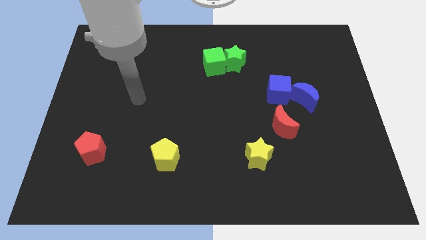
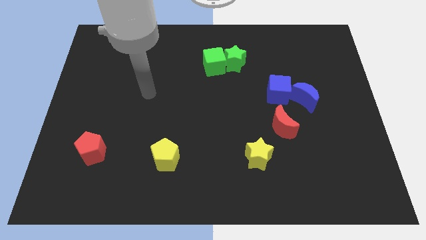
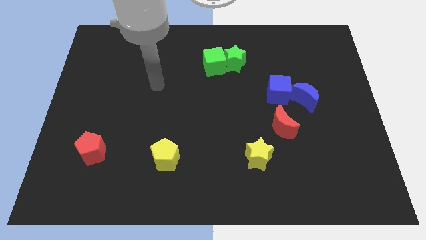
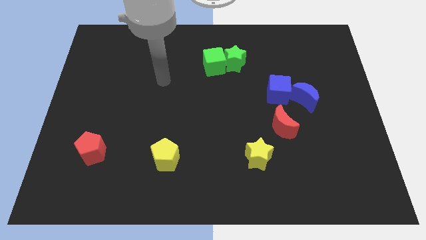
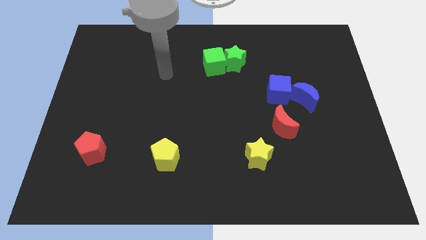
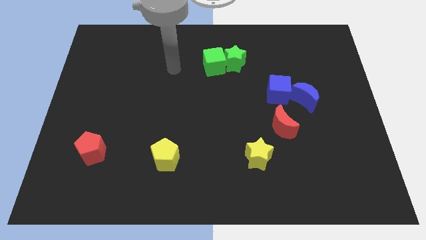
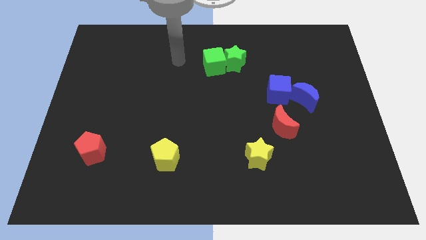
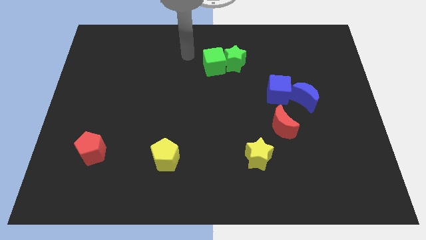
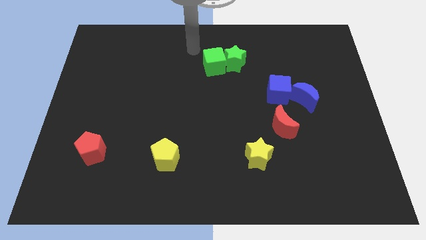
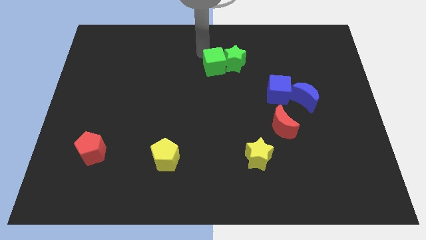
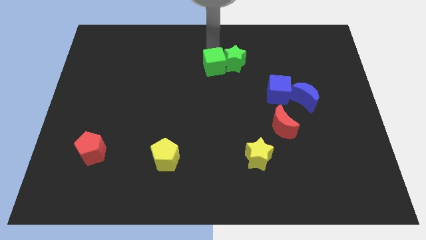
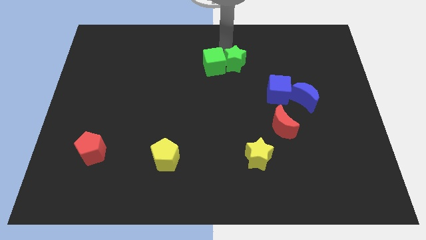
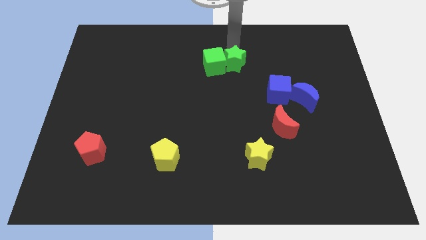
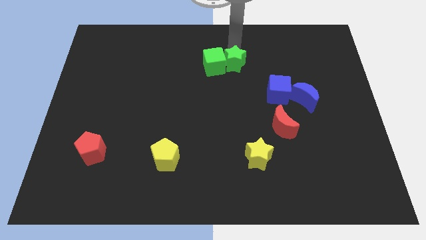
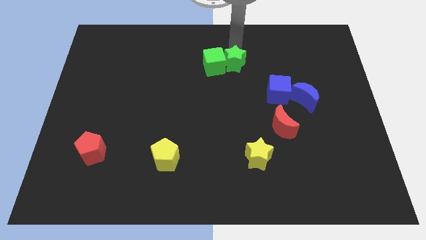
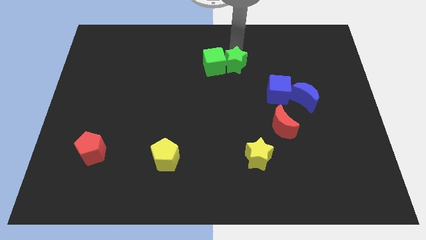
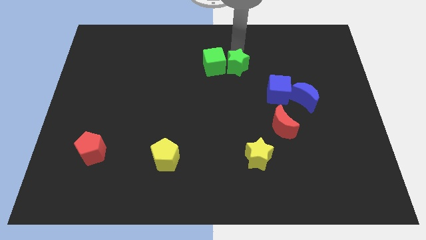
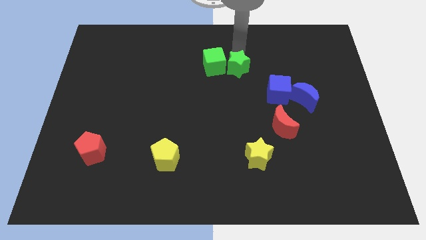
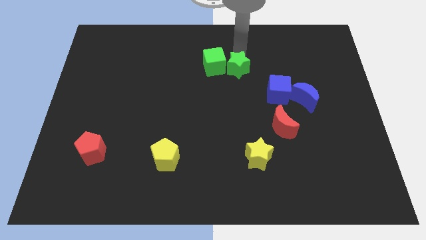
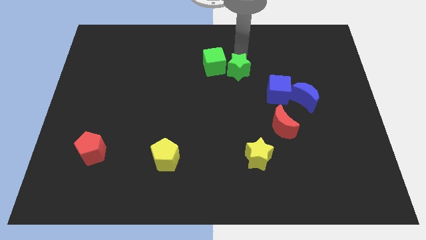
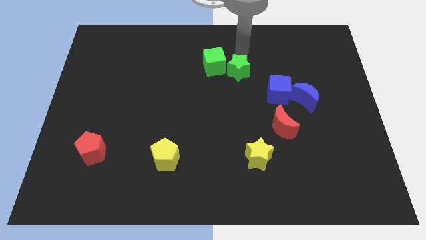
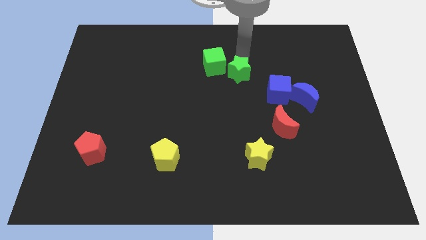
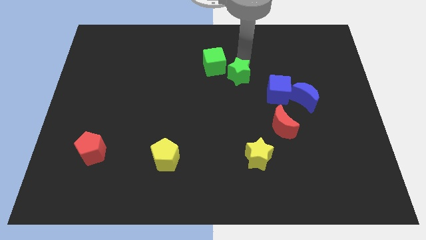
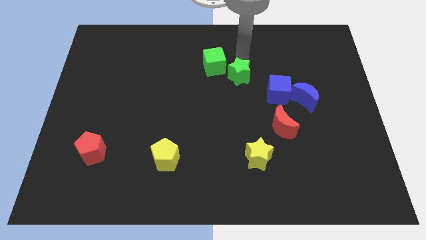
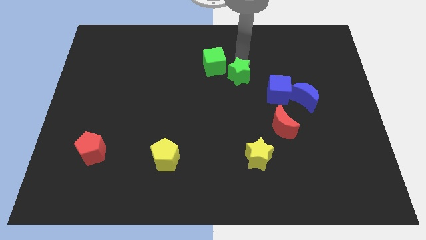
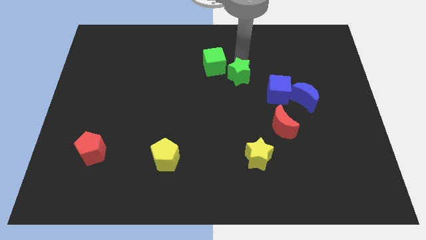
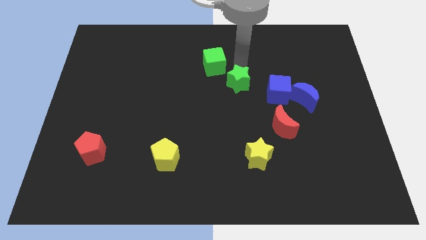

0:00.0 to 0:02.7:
slide the green star a little bit down

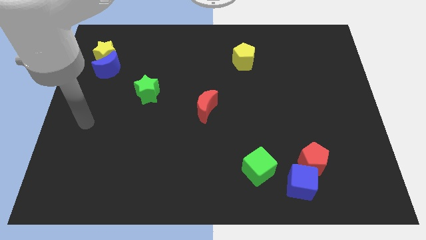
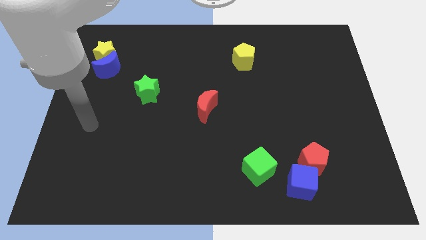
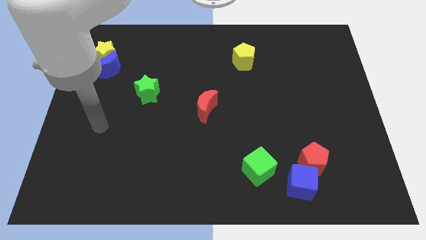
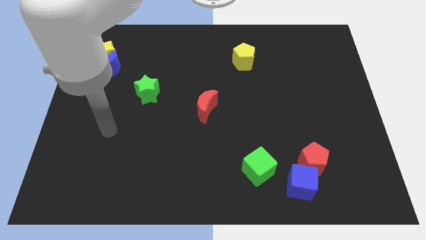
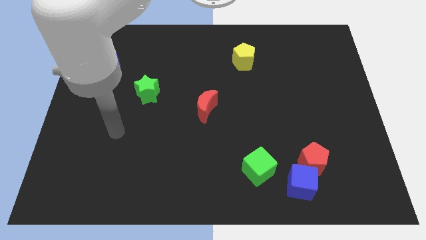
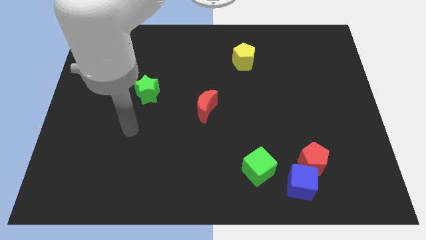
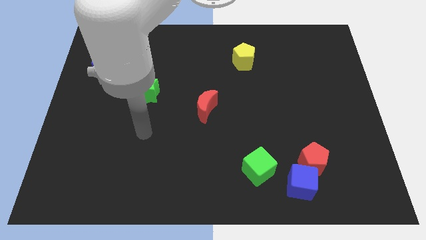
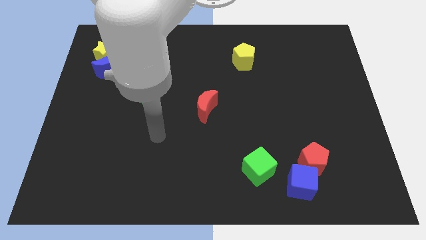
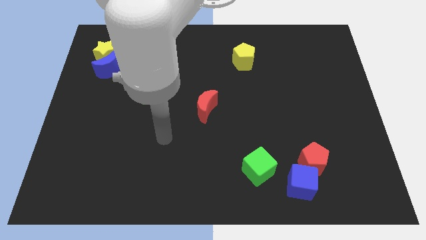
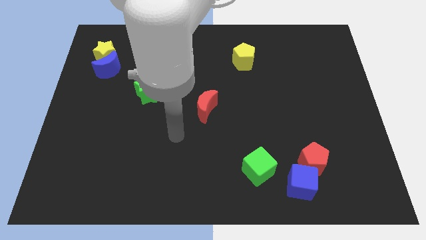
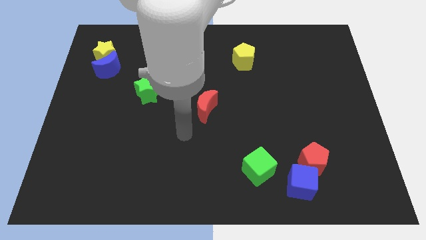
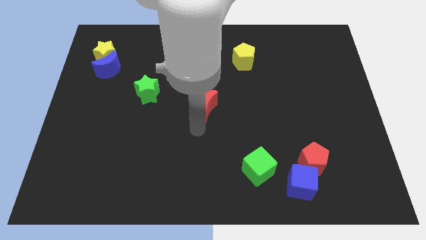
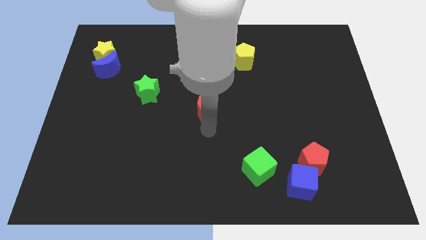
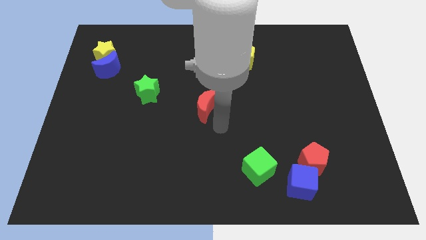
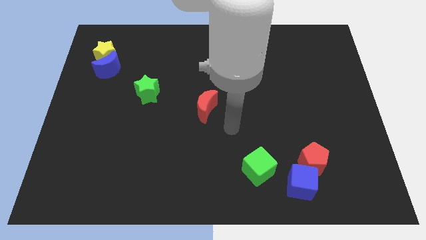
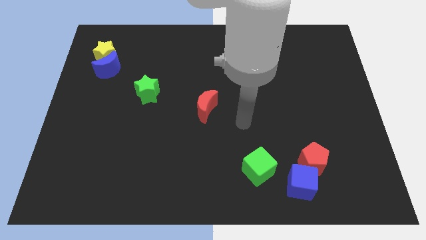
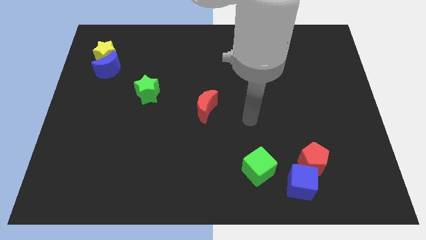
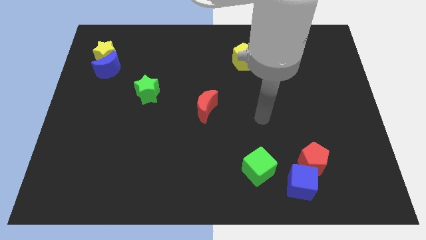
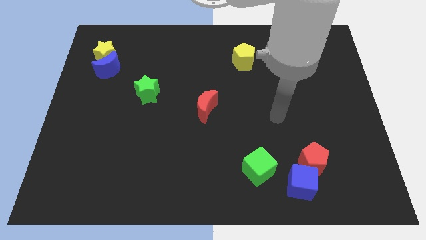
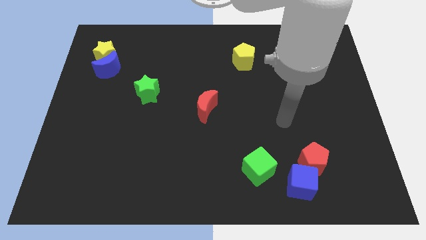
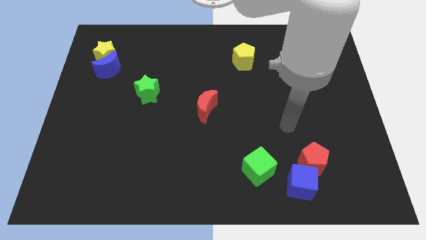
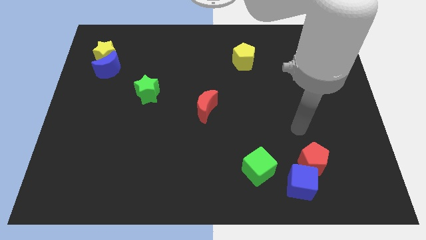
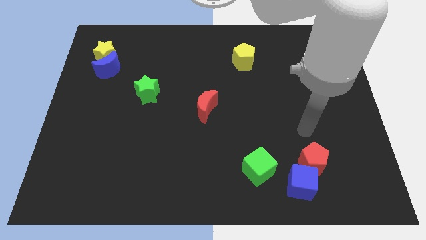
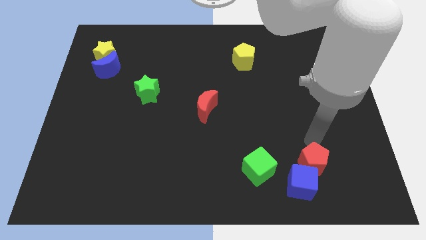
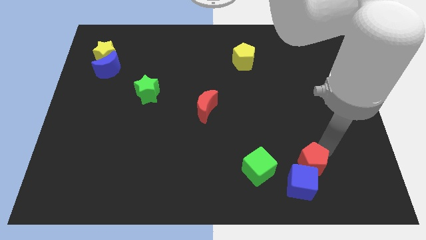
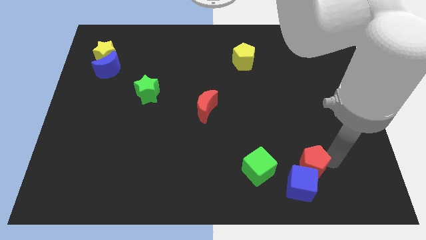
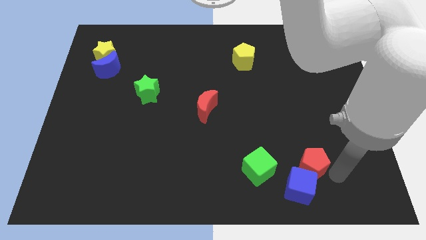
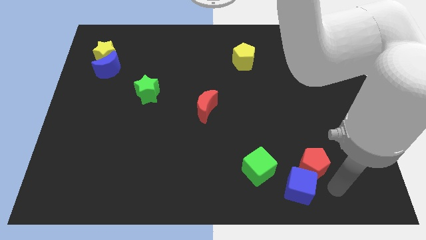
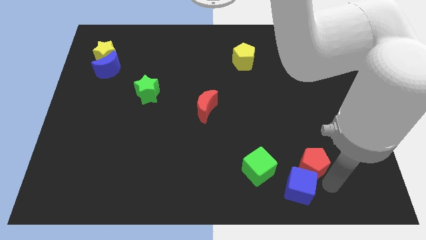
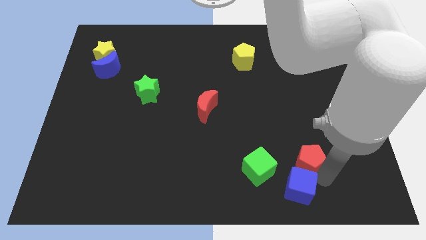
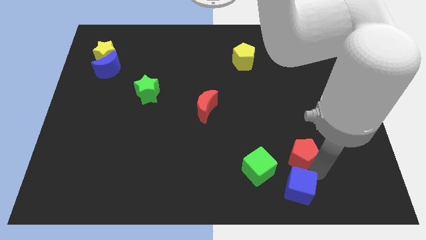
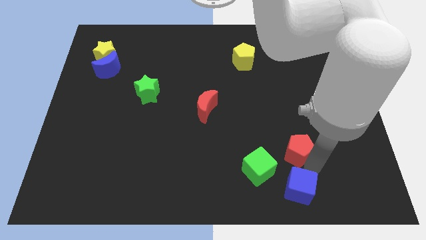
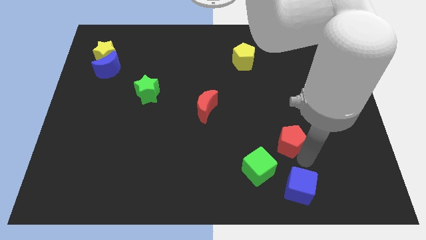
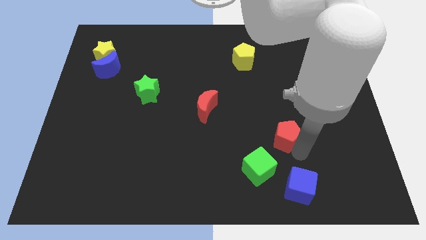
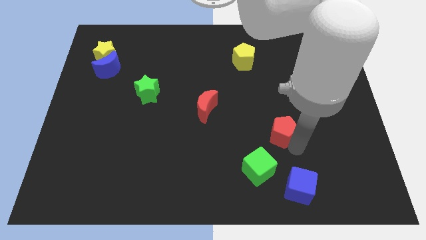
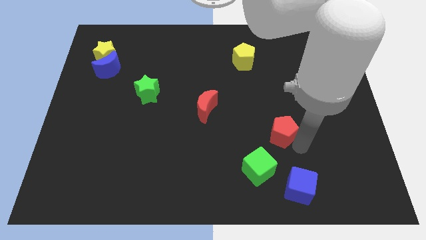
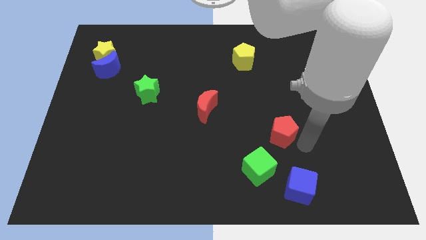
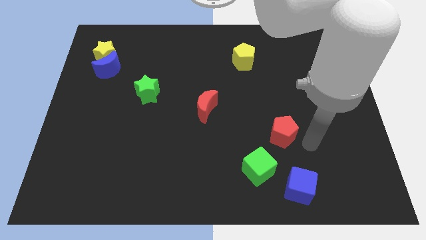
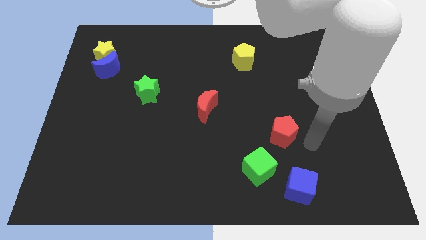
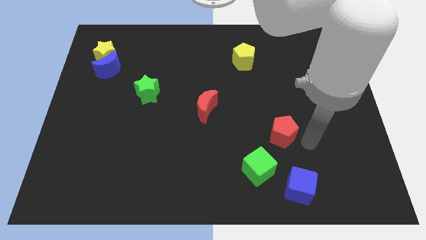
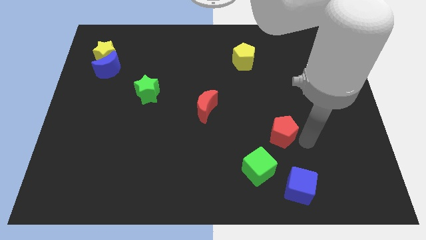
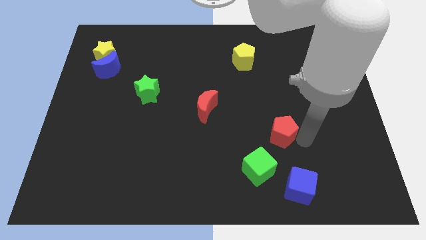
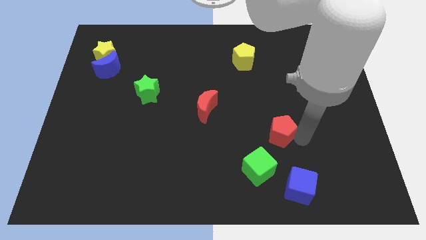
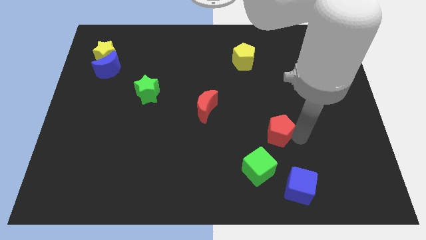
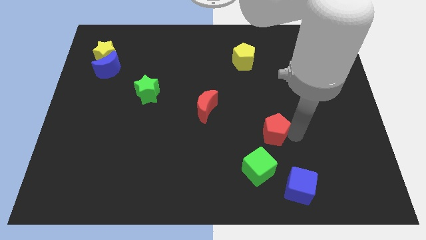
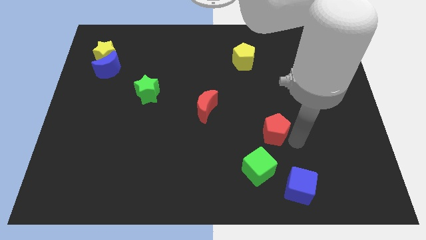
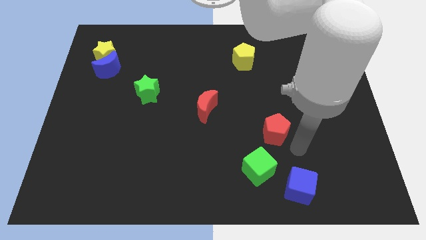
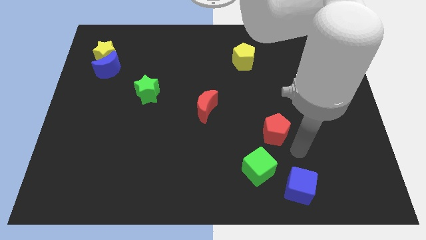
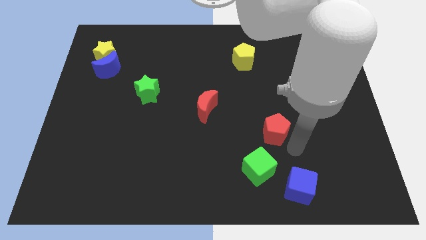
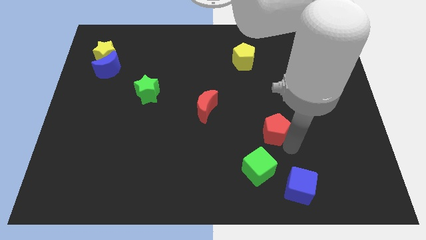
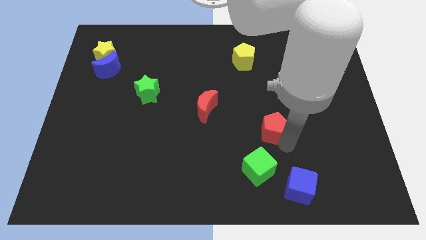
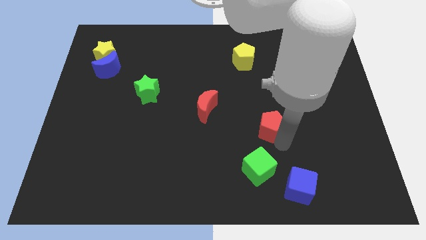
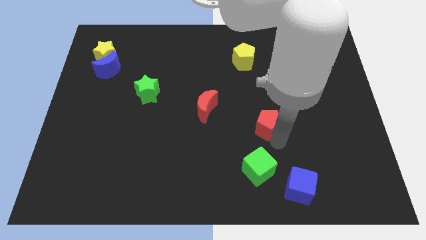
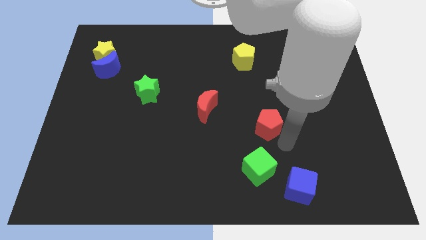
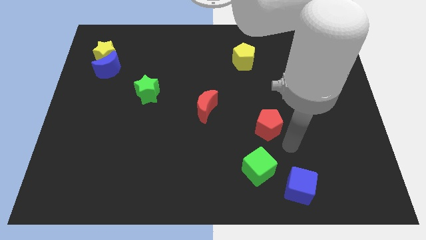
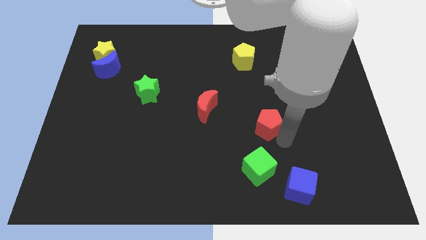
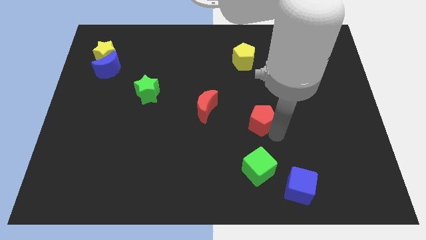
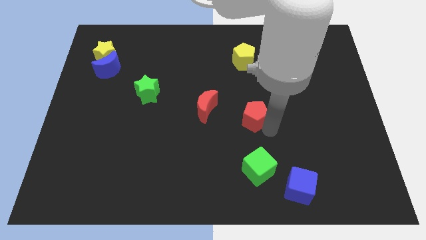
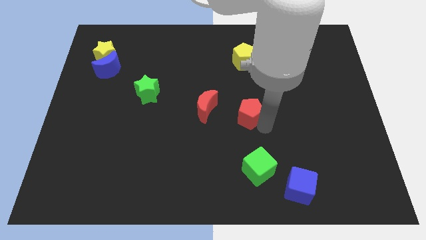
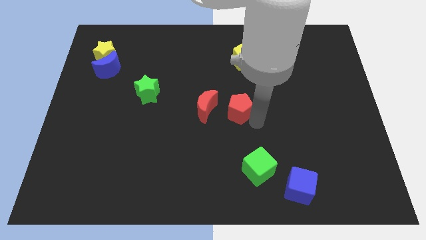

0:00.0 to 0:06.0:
slide the red pentagon upwards and then to the left
